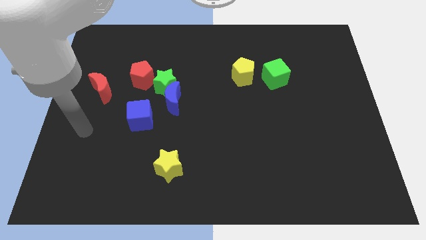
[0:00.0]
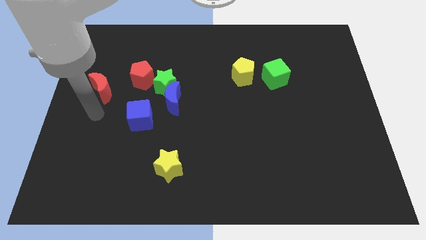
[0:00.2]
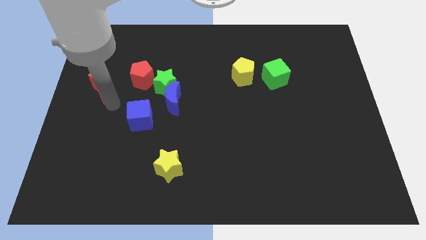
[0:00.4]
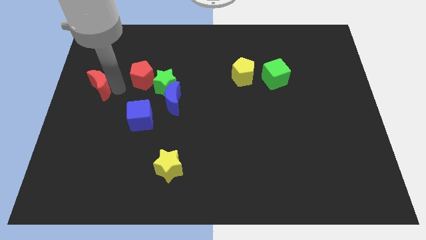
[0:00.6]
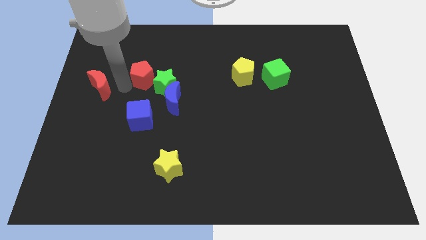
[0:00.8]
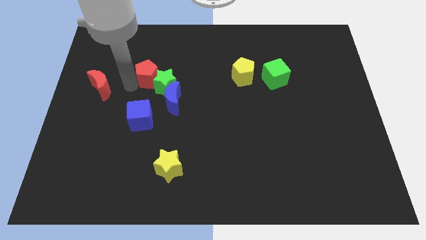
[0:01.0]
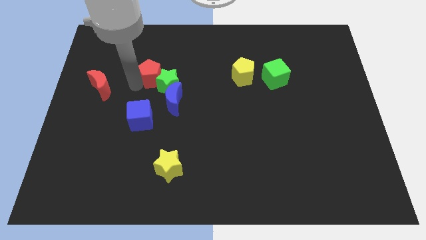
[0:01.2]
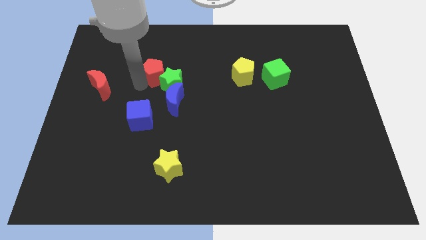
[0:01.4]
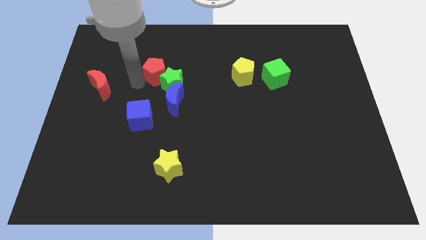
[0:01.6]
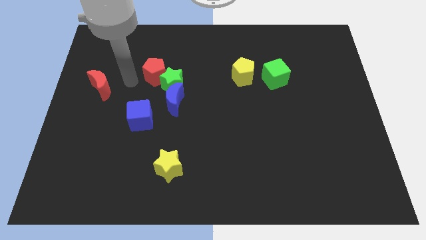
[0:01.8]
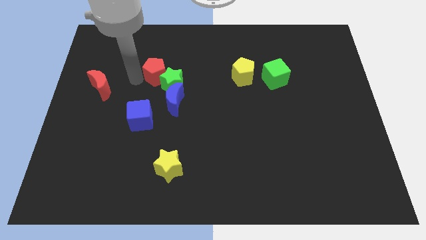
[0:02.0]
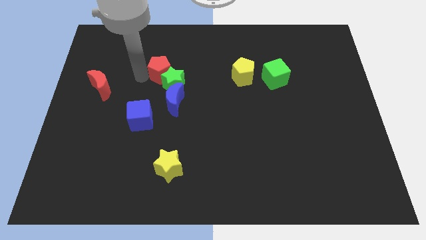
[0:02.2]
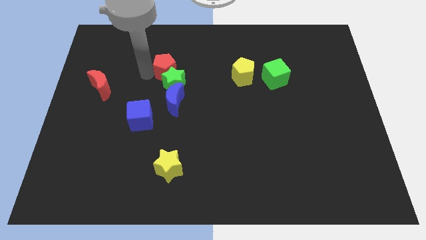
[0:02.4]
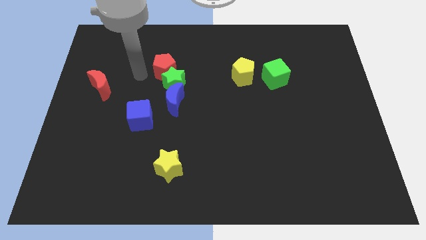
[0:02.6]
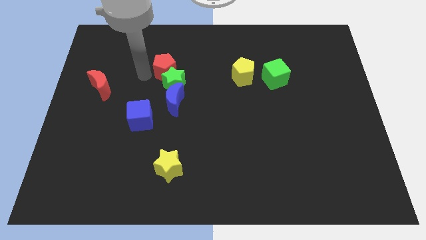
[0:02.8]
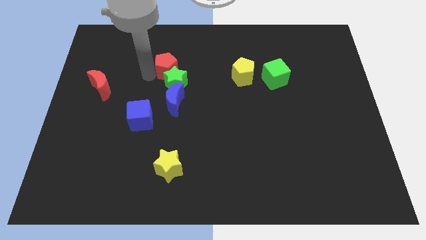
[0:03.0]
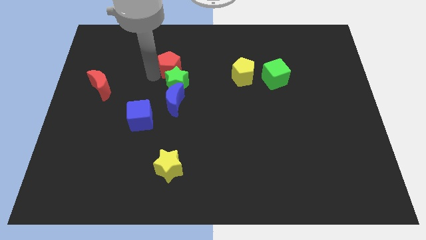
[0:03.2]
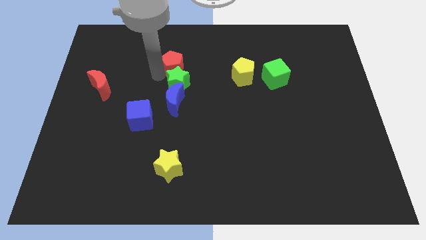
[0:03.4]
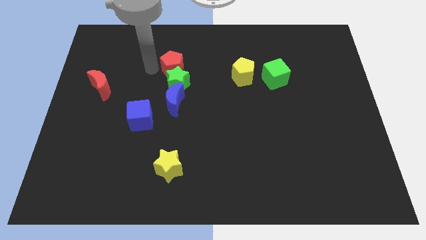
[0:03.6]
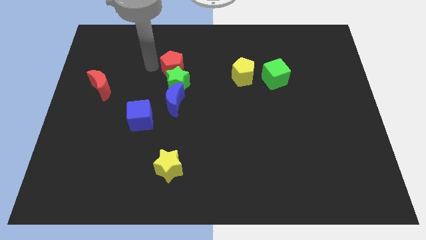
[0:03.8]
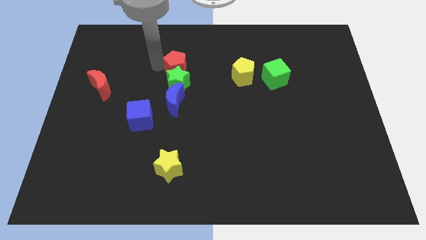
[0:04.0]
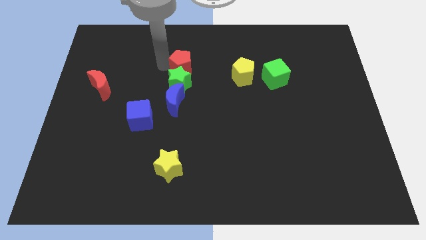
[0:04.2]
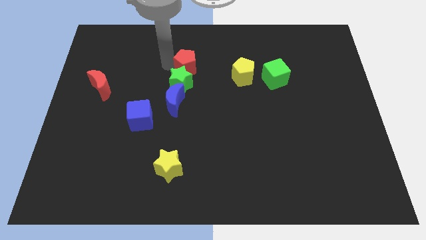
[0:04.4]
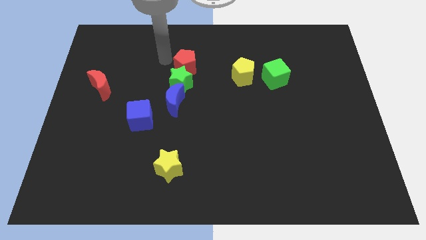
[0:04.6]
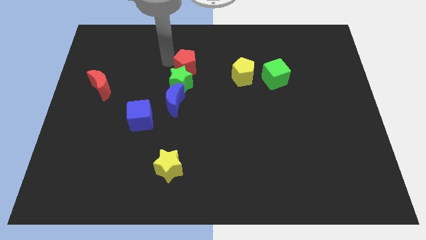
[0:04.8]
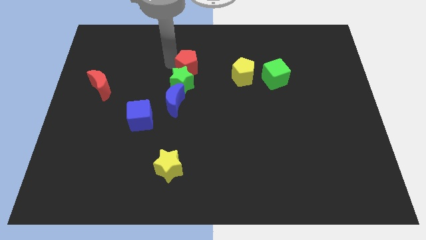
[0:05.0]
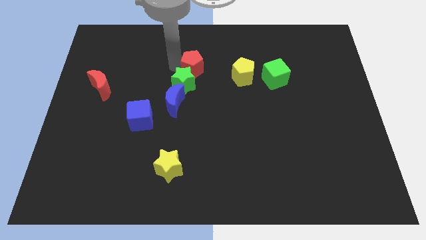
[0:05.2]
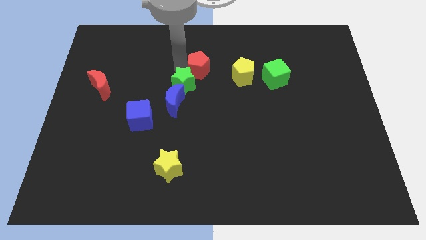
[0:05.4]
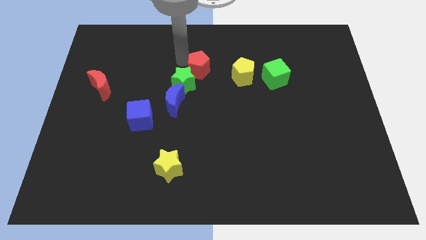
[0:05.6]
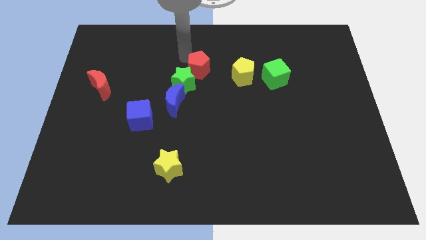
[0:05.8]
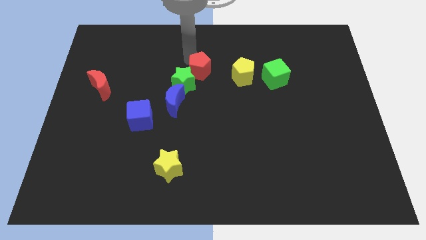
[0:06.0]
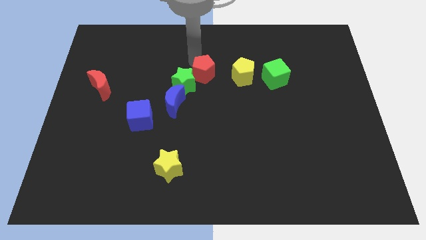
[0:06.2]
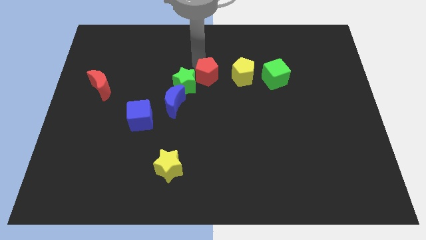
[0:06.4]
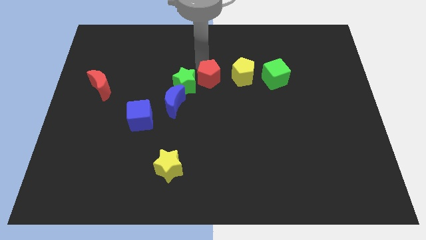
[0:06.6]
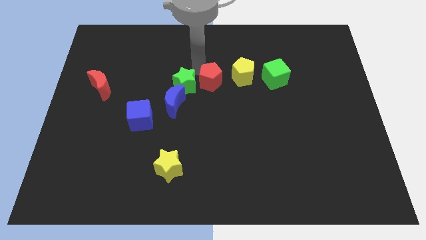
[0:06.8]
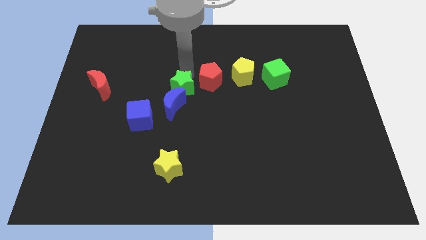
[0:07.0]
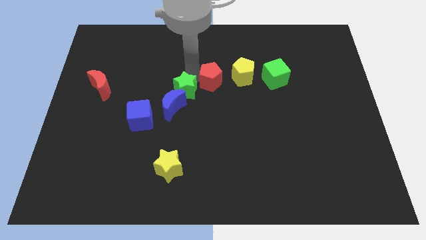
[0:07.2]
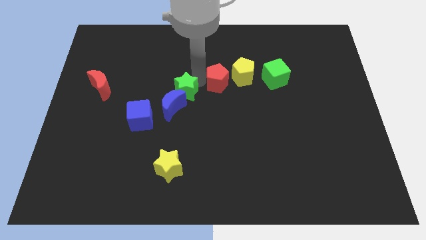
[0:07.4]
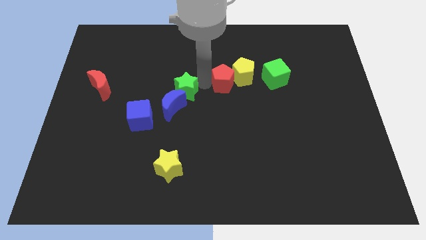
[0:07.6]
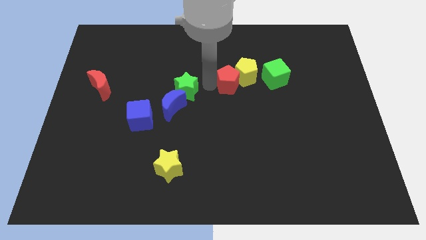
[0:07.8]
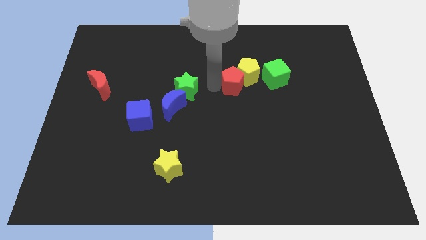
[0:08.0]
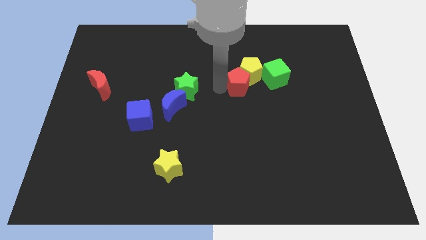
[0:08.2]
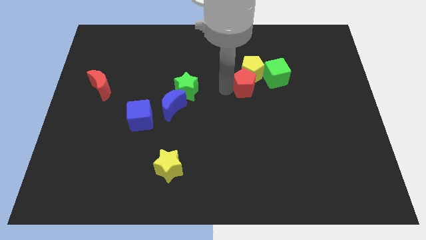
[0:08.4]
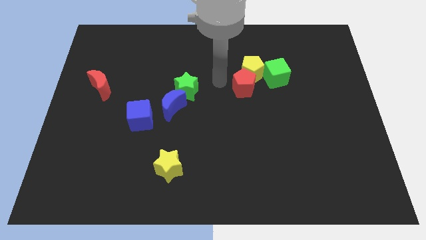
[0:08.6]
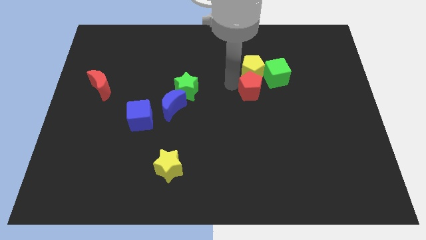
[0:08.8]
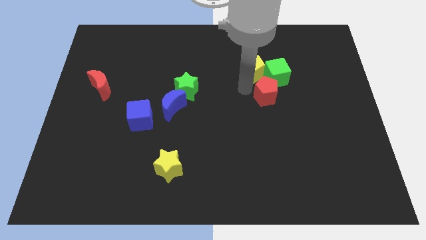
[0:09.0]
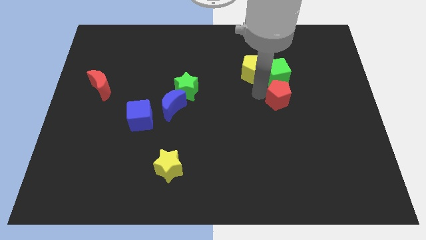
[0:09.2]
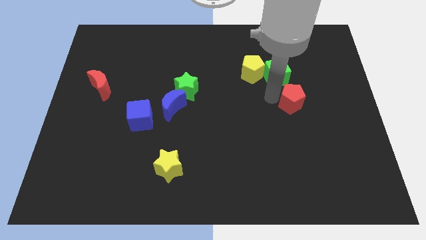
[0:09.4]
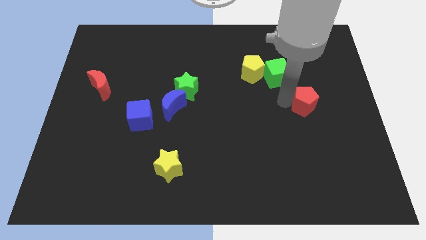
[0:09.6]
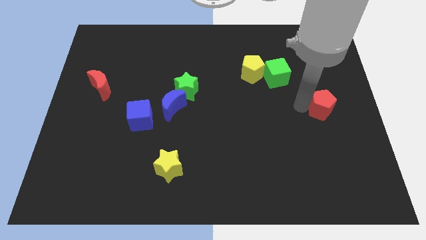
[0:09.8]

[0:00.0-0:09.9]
push the red pentagon to the right side

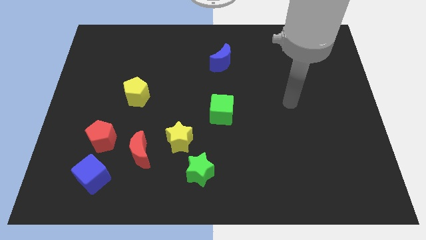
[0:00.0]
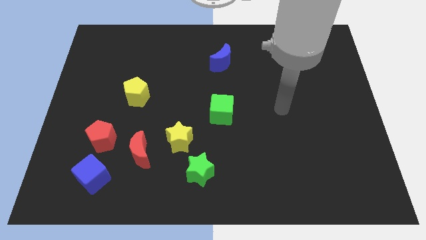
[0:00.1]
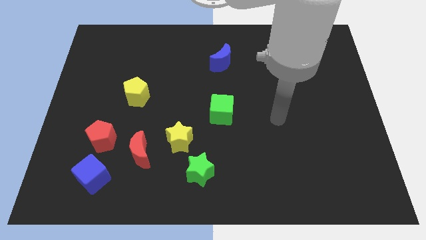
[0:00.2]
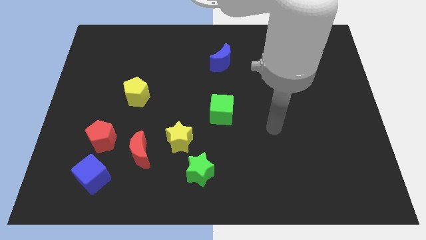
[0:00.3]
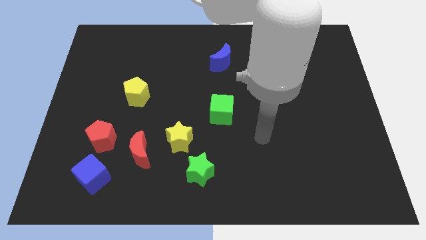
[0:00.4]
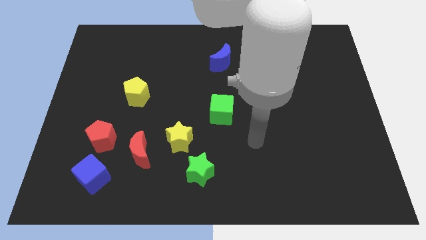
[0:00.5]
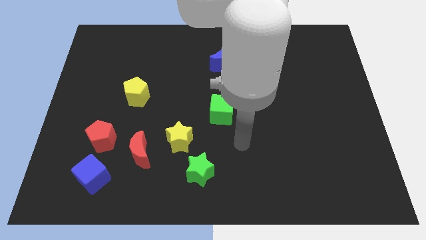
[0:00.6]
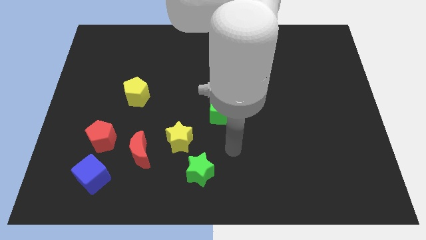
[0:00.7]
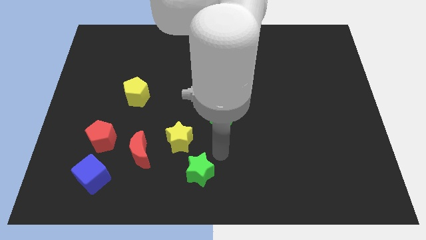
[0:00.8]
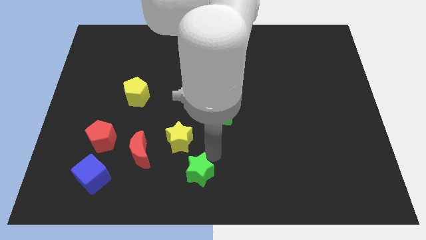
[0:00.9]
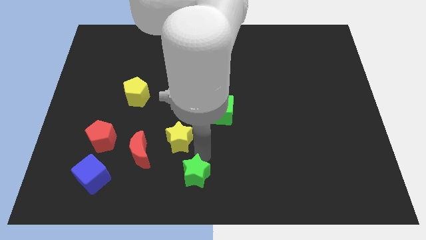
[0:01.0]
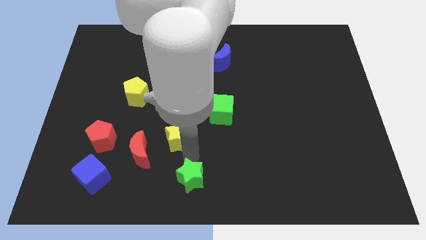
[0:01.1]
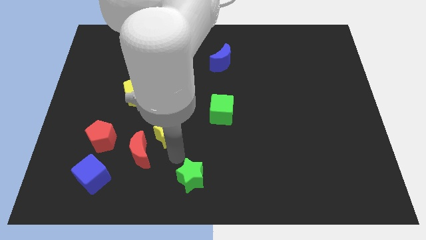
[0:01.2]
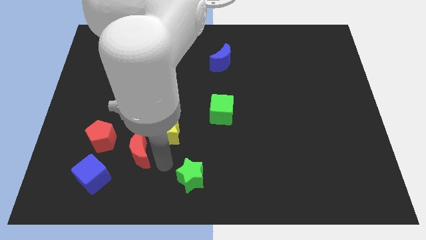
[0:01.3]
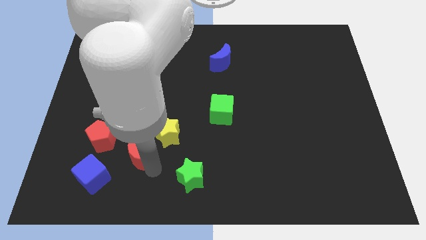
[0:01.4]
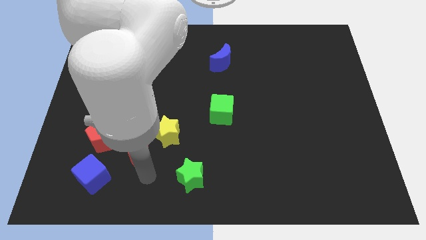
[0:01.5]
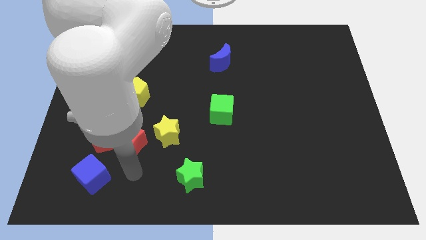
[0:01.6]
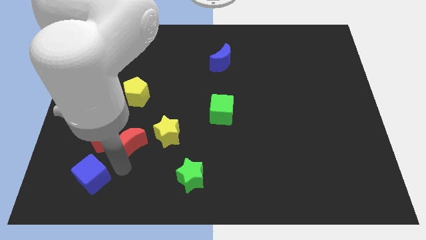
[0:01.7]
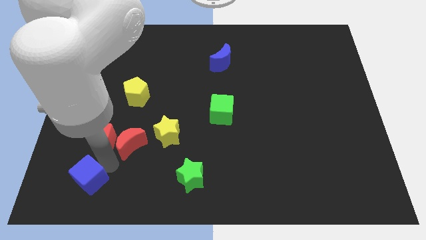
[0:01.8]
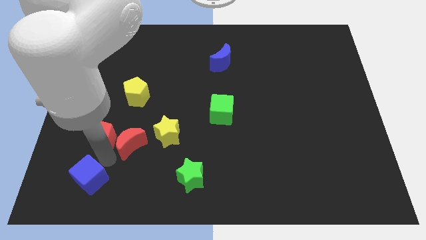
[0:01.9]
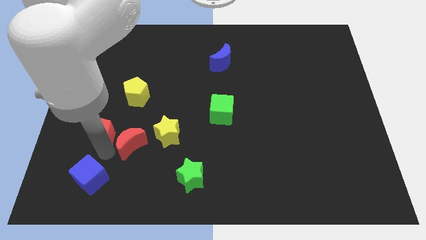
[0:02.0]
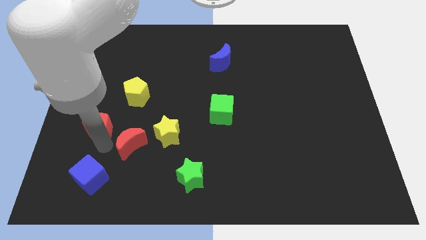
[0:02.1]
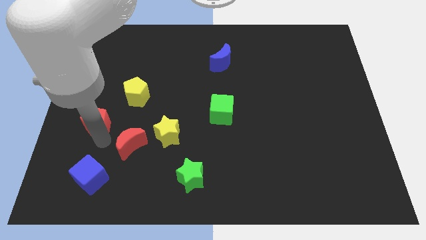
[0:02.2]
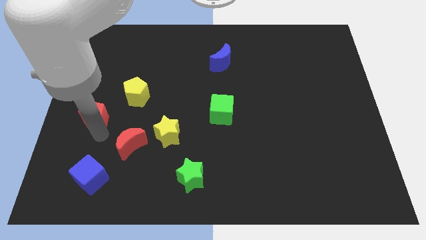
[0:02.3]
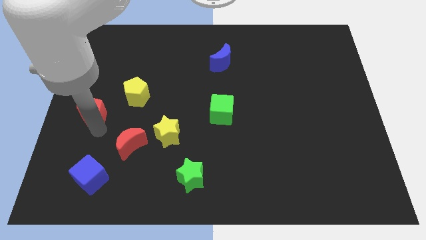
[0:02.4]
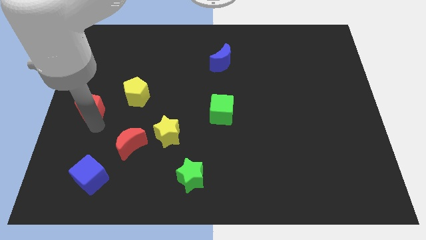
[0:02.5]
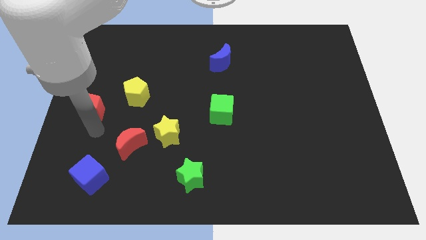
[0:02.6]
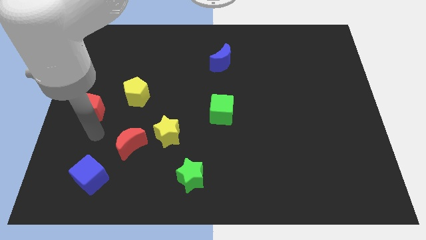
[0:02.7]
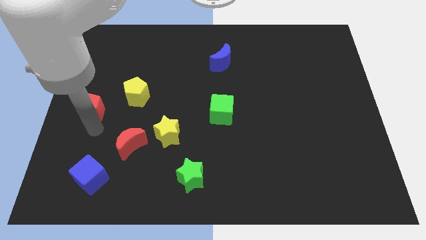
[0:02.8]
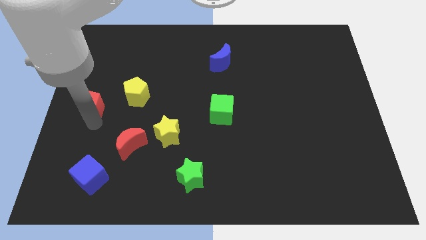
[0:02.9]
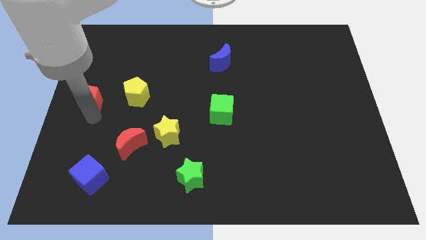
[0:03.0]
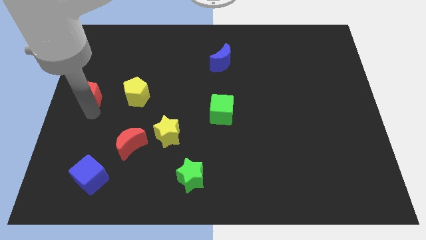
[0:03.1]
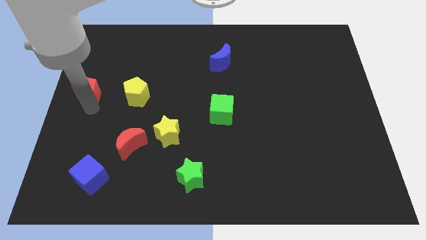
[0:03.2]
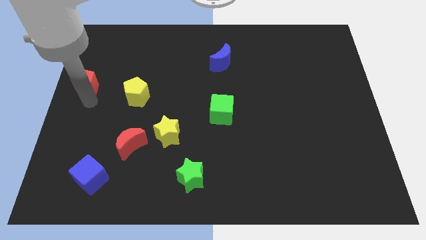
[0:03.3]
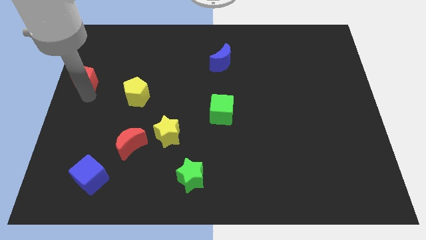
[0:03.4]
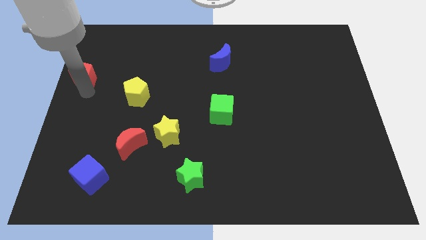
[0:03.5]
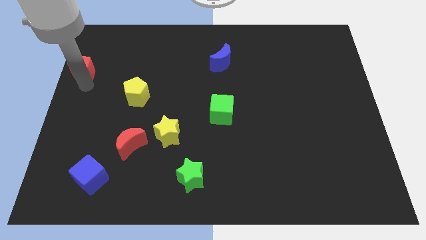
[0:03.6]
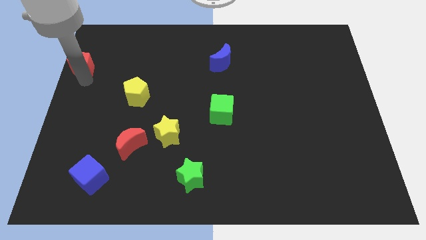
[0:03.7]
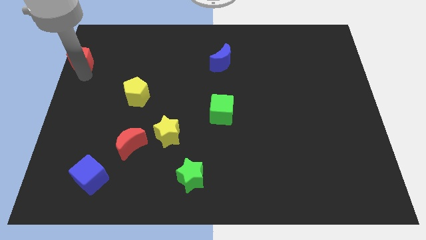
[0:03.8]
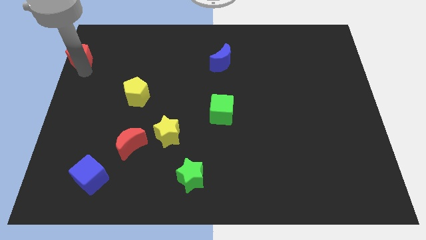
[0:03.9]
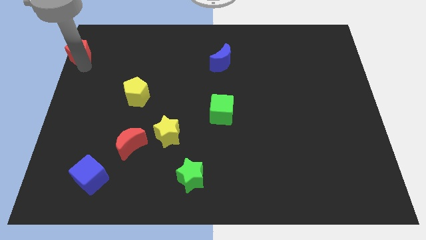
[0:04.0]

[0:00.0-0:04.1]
push the red pentagon to the top left
